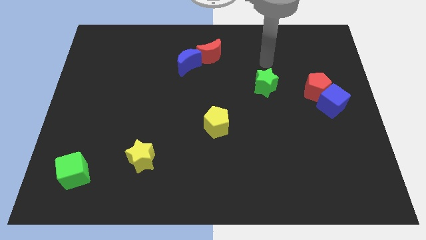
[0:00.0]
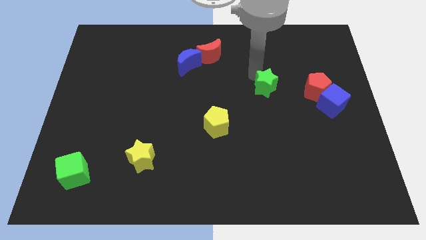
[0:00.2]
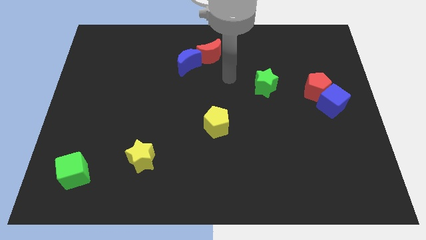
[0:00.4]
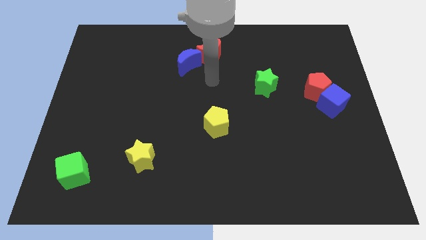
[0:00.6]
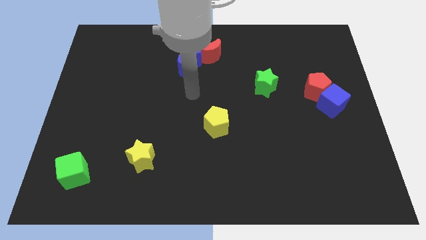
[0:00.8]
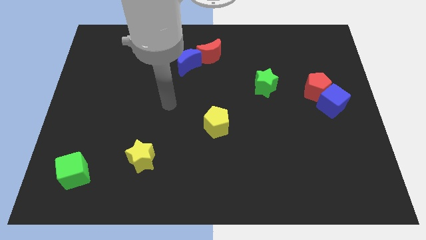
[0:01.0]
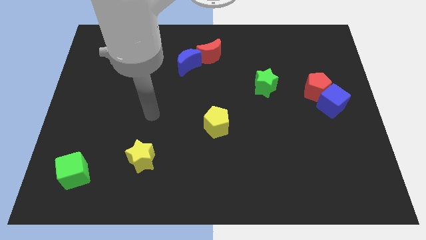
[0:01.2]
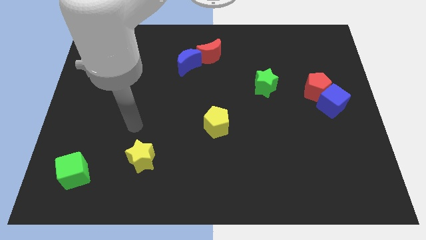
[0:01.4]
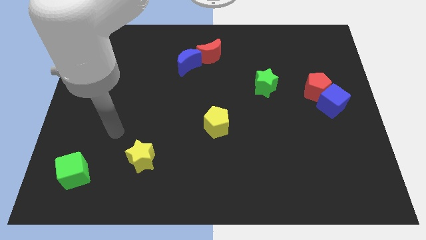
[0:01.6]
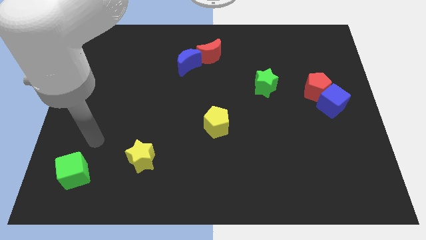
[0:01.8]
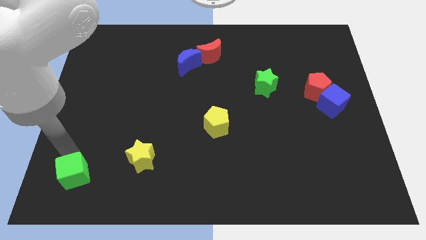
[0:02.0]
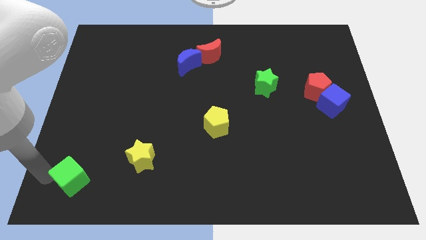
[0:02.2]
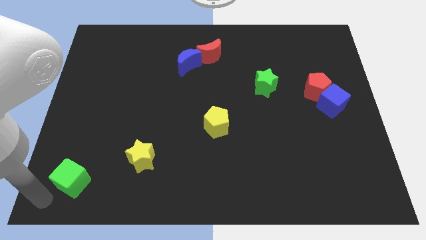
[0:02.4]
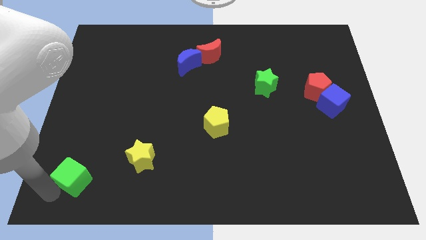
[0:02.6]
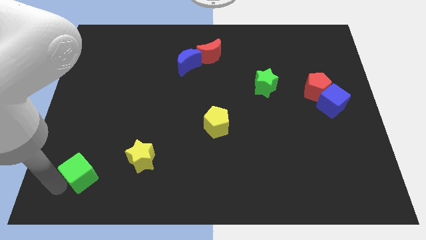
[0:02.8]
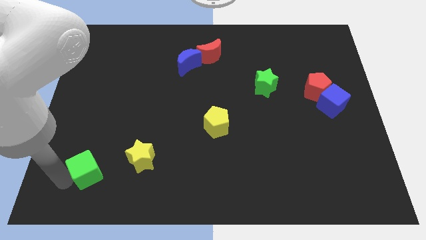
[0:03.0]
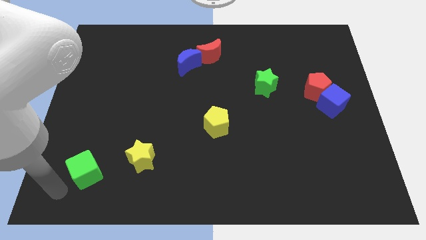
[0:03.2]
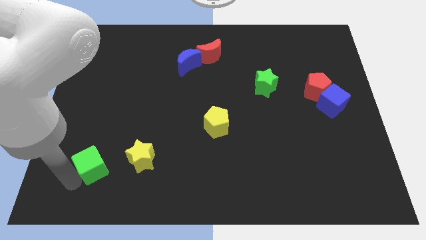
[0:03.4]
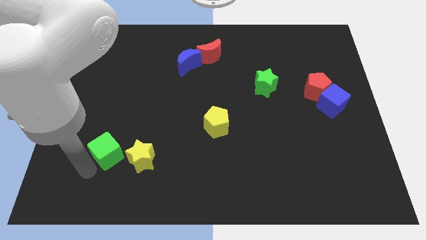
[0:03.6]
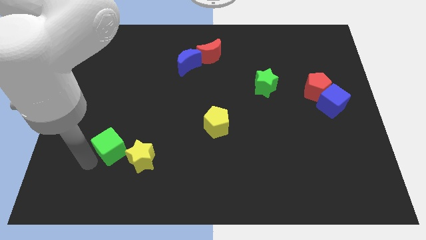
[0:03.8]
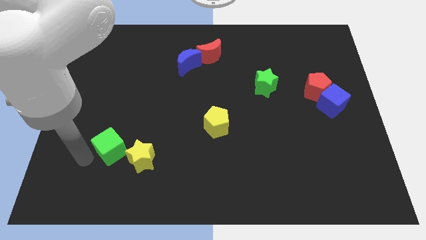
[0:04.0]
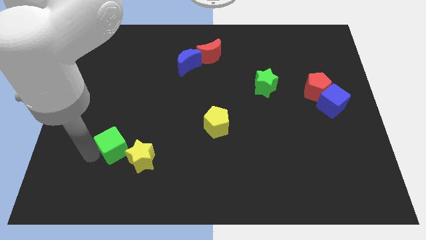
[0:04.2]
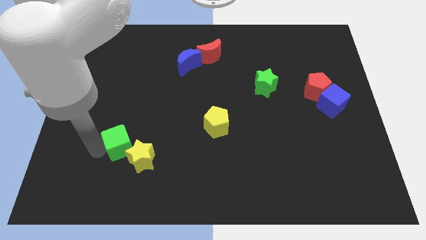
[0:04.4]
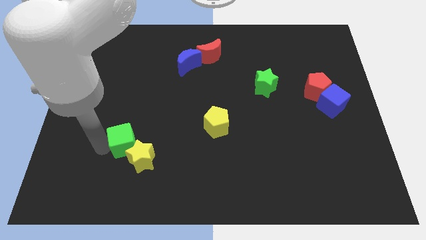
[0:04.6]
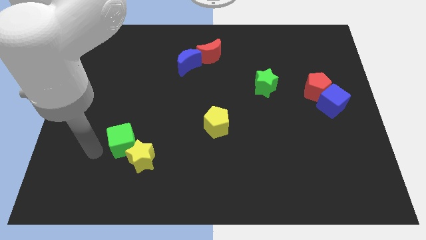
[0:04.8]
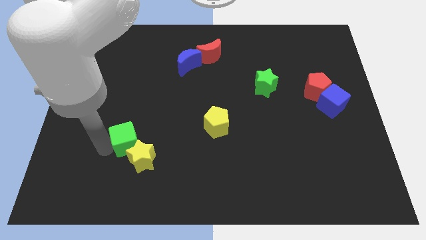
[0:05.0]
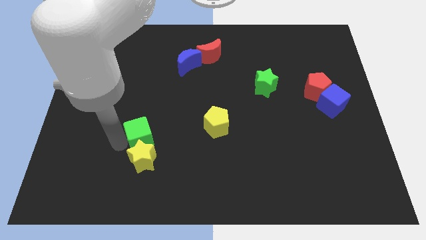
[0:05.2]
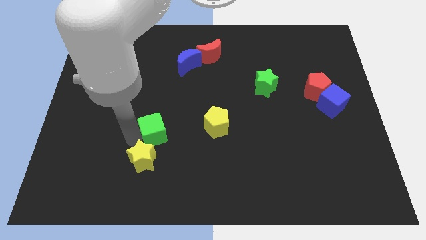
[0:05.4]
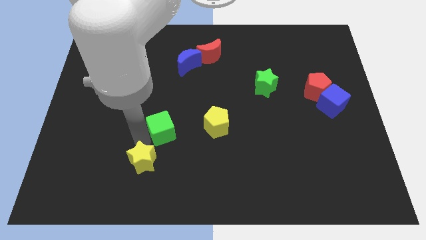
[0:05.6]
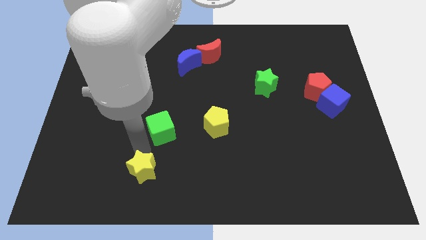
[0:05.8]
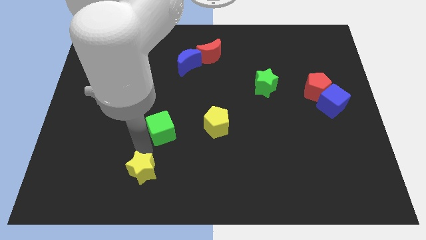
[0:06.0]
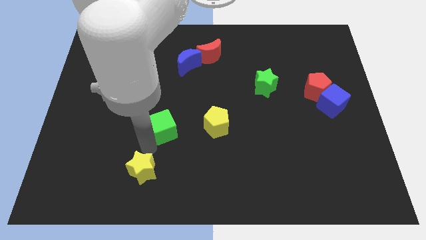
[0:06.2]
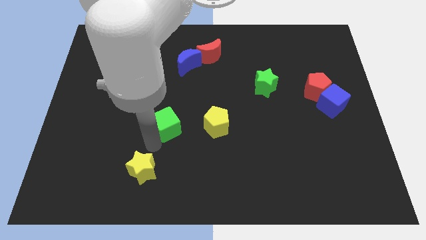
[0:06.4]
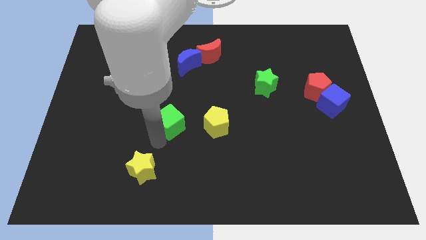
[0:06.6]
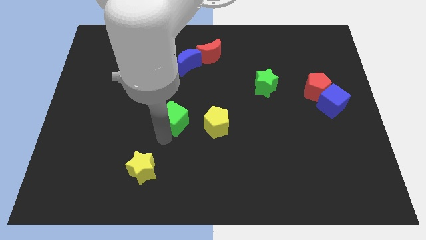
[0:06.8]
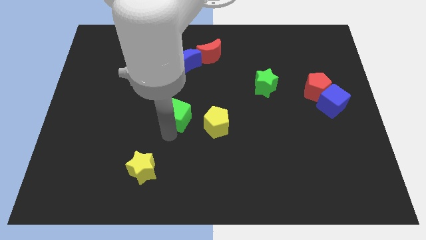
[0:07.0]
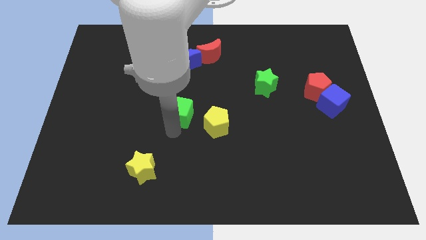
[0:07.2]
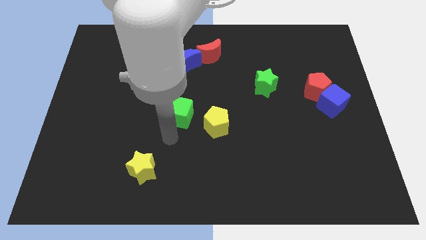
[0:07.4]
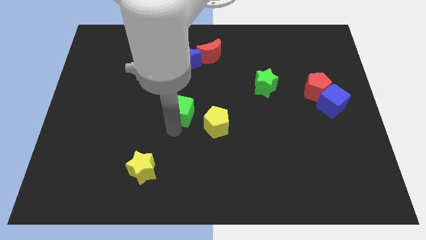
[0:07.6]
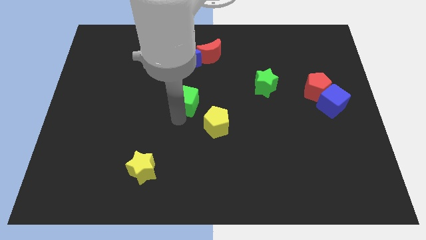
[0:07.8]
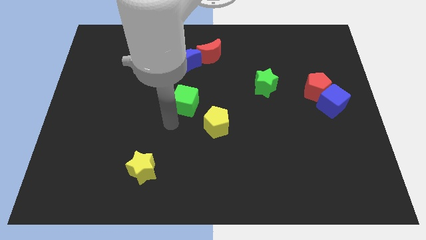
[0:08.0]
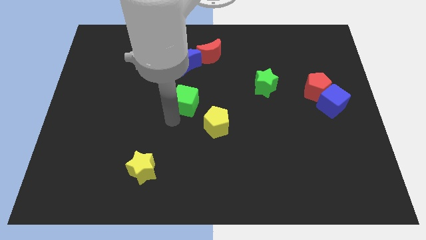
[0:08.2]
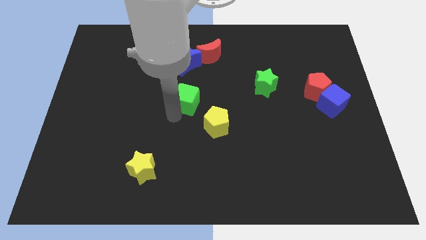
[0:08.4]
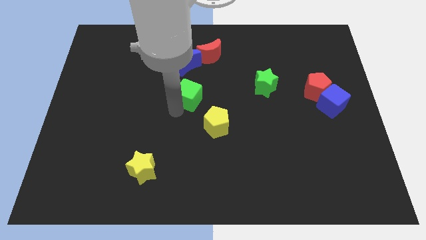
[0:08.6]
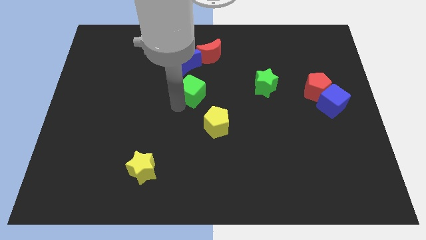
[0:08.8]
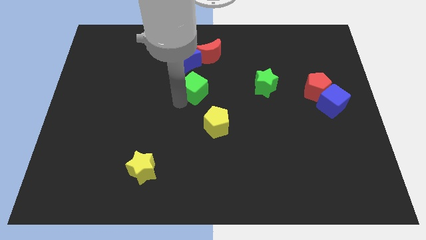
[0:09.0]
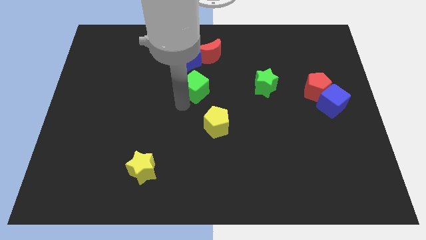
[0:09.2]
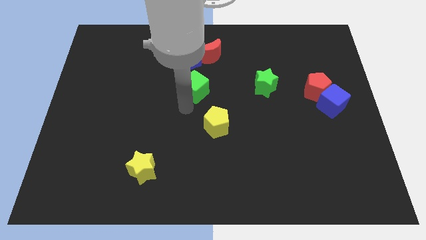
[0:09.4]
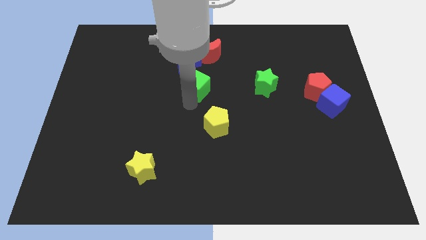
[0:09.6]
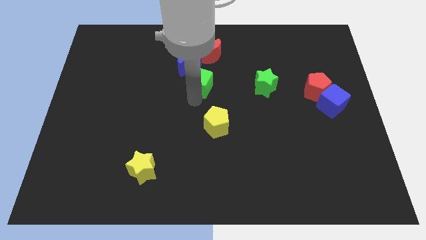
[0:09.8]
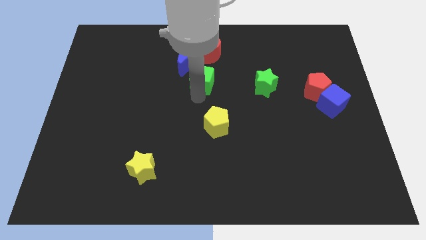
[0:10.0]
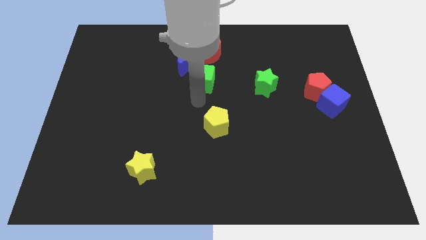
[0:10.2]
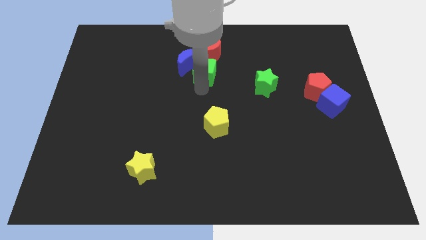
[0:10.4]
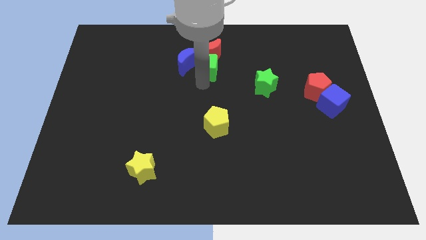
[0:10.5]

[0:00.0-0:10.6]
put the green cube to the red moon

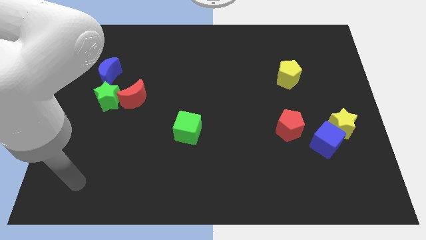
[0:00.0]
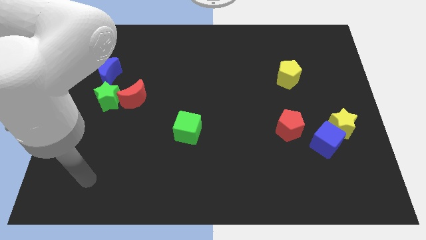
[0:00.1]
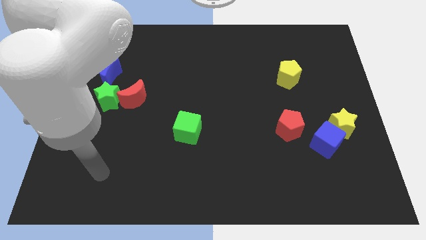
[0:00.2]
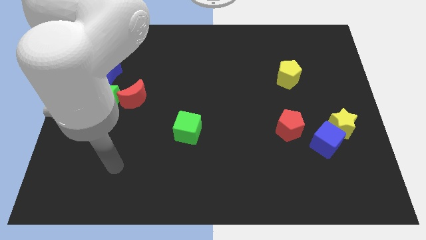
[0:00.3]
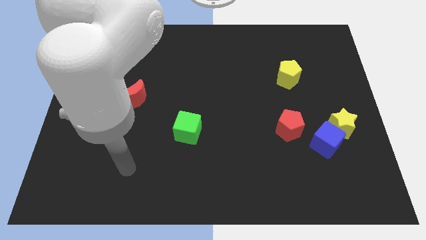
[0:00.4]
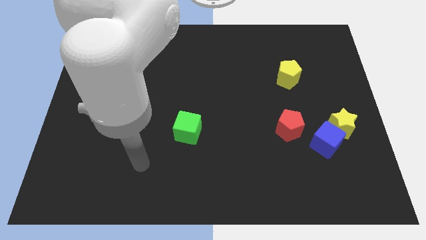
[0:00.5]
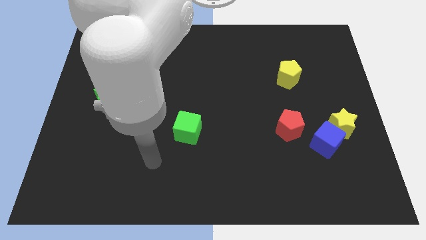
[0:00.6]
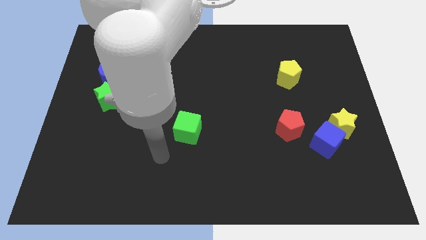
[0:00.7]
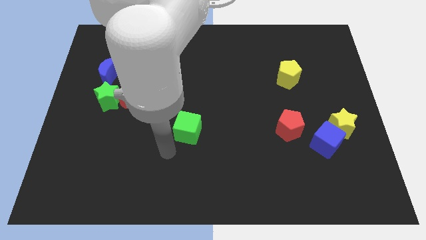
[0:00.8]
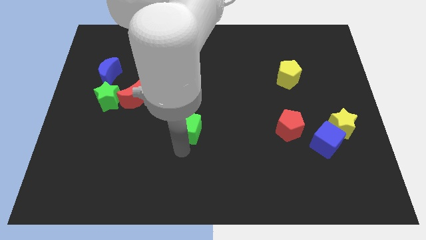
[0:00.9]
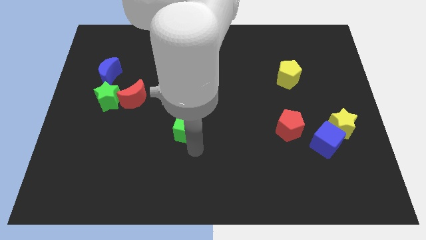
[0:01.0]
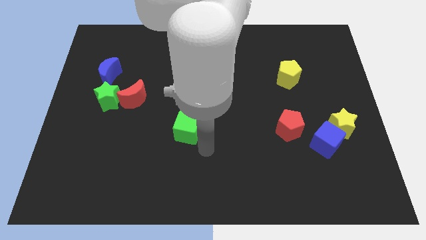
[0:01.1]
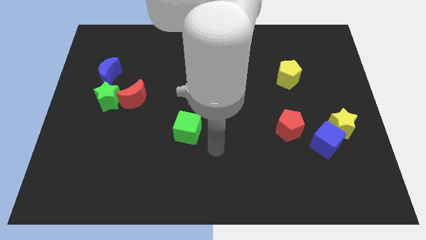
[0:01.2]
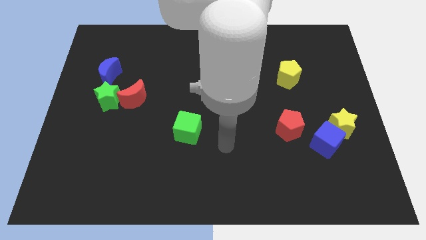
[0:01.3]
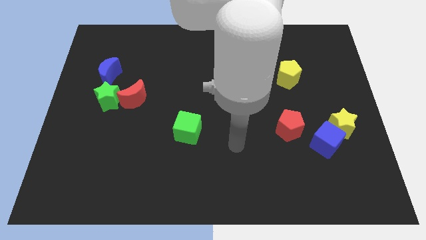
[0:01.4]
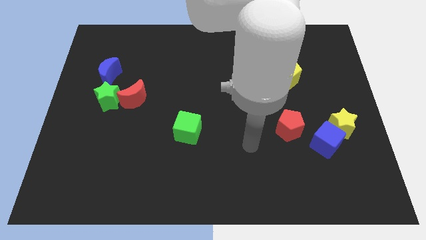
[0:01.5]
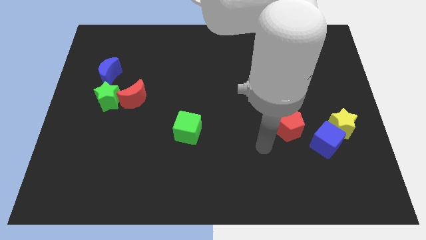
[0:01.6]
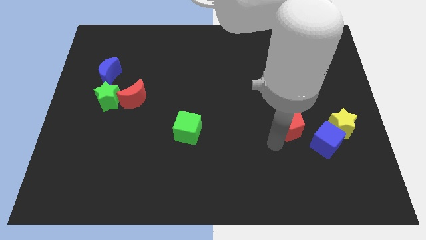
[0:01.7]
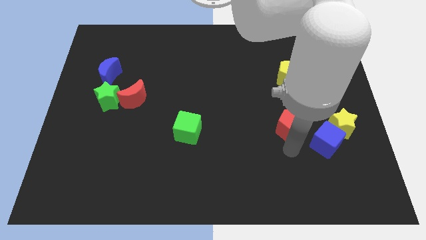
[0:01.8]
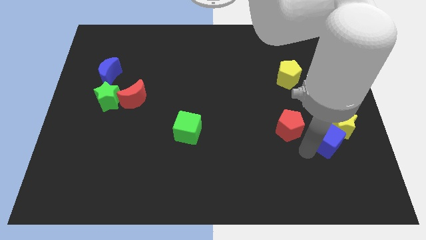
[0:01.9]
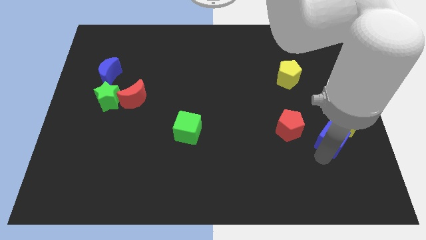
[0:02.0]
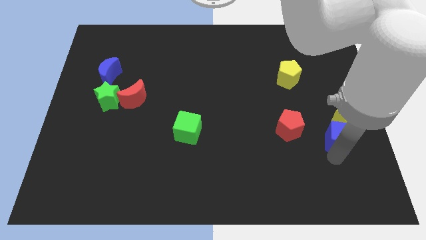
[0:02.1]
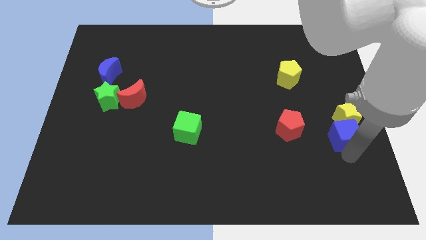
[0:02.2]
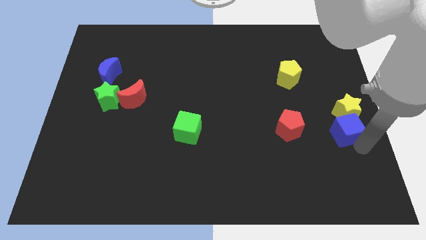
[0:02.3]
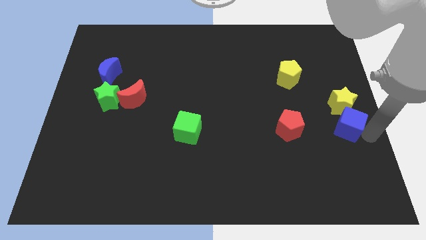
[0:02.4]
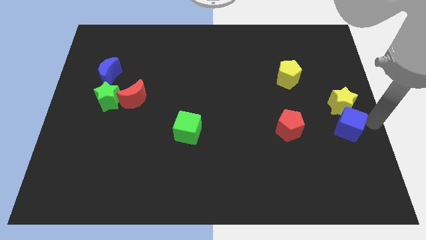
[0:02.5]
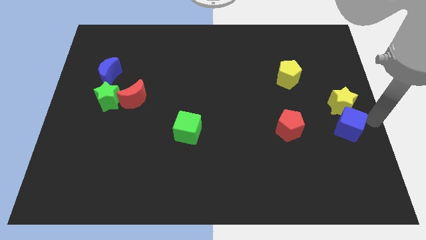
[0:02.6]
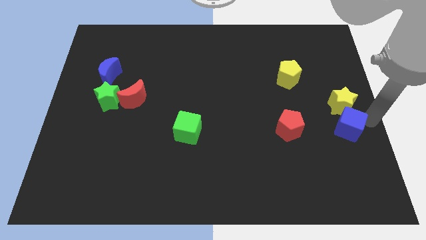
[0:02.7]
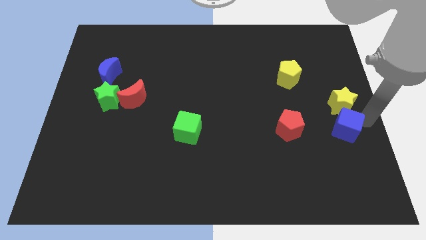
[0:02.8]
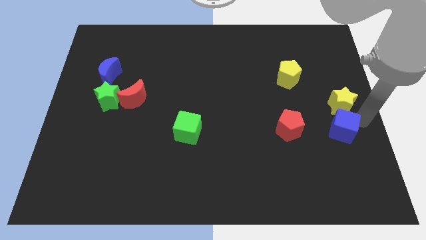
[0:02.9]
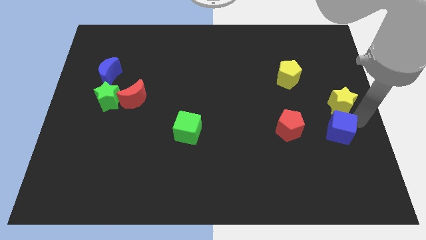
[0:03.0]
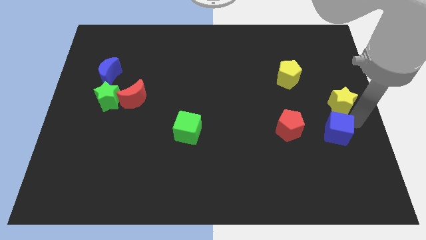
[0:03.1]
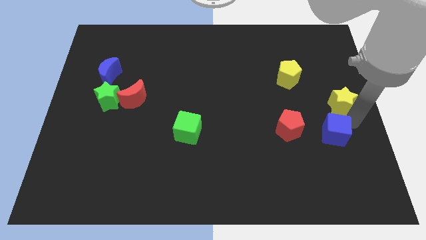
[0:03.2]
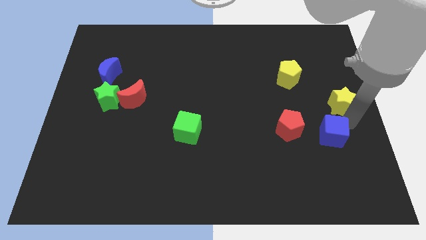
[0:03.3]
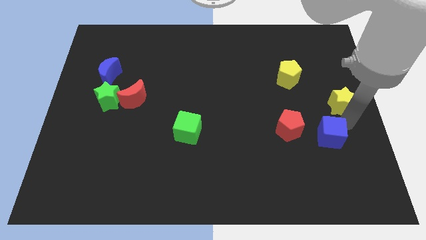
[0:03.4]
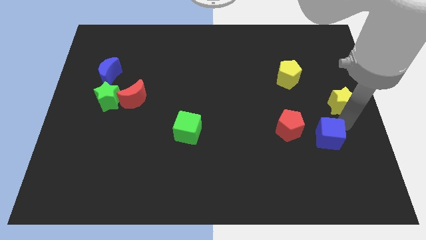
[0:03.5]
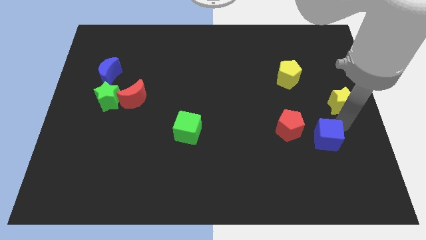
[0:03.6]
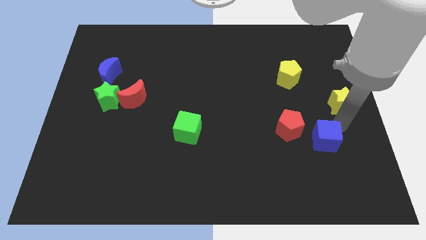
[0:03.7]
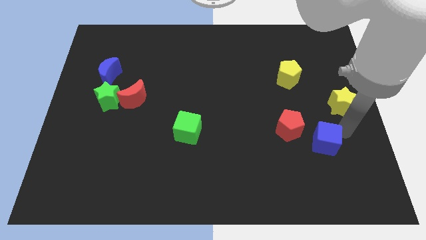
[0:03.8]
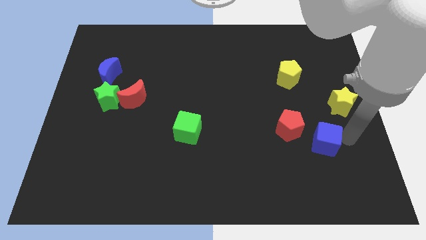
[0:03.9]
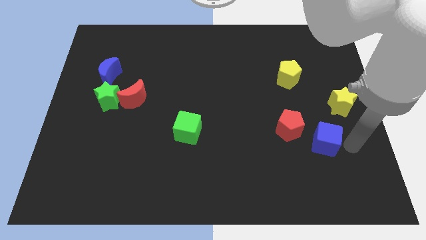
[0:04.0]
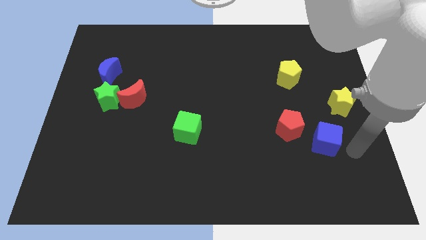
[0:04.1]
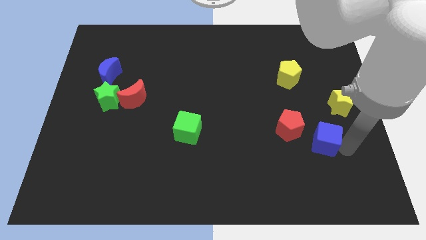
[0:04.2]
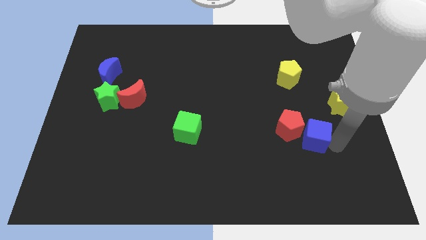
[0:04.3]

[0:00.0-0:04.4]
move the blue cube close to the red pentagon
